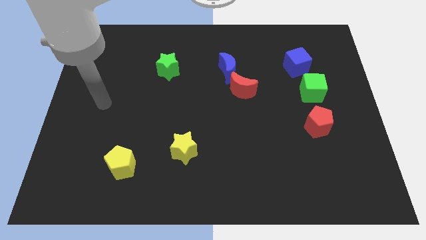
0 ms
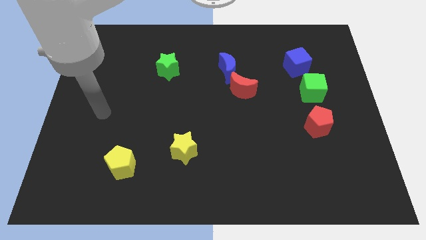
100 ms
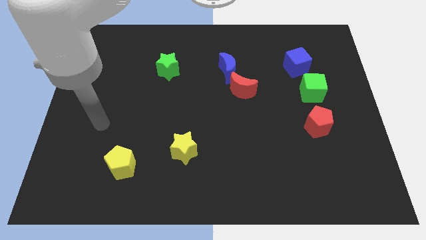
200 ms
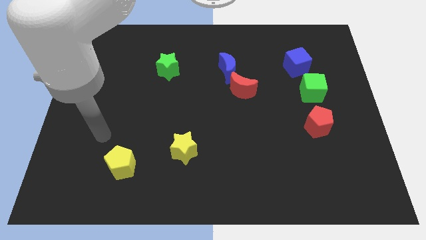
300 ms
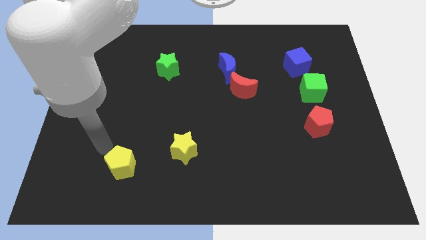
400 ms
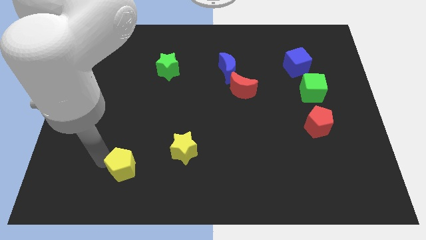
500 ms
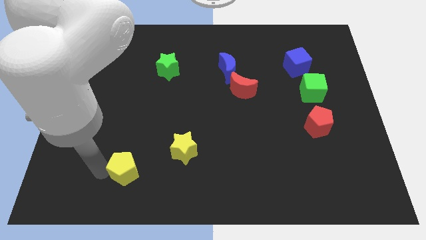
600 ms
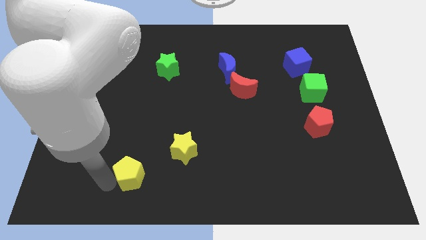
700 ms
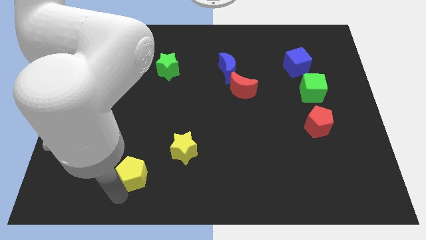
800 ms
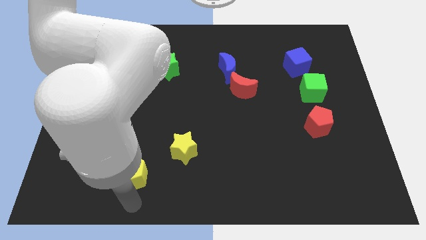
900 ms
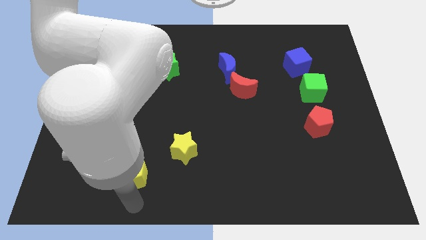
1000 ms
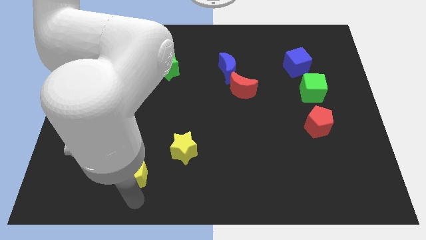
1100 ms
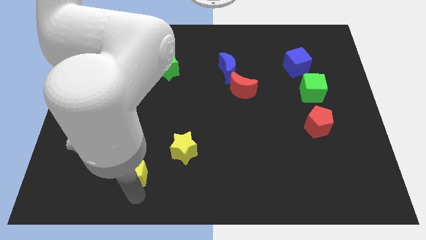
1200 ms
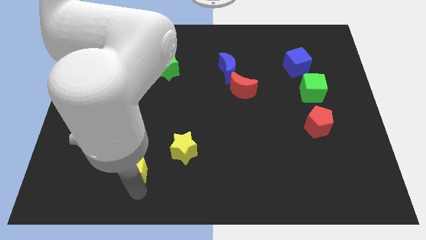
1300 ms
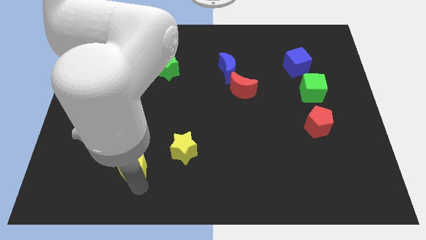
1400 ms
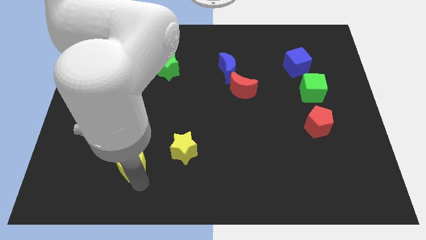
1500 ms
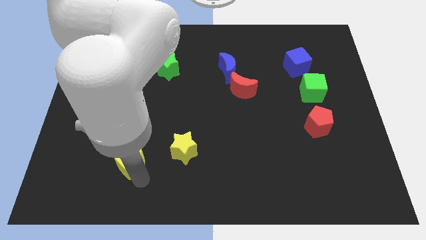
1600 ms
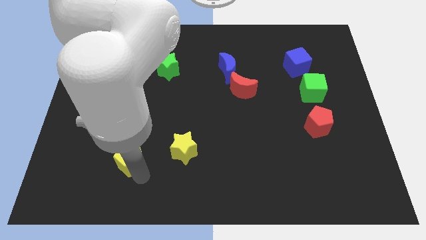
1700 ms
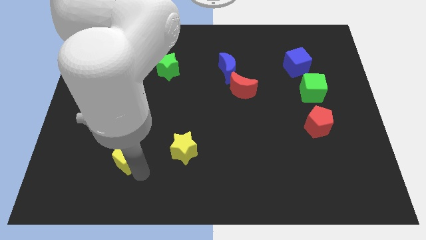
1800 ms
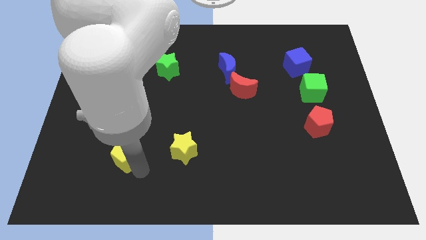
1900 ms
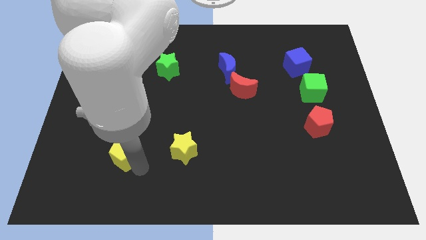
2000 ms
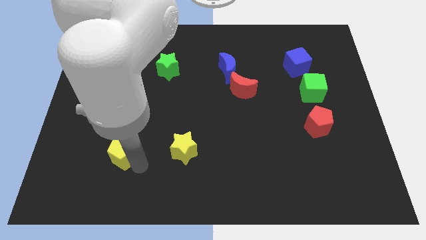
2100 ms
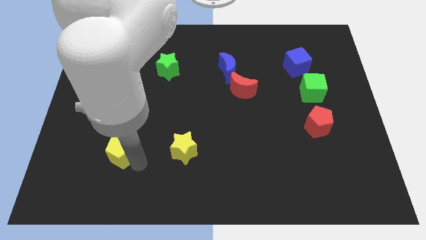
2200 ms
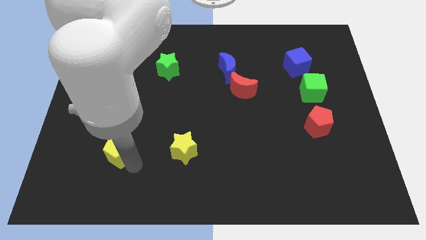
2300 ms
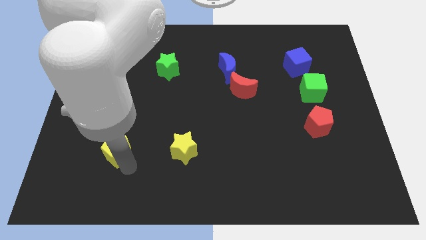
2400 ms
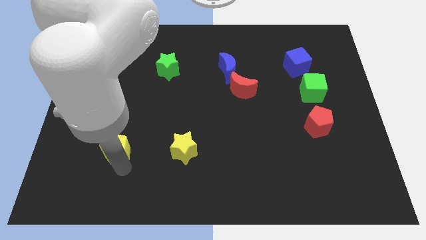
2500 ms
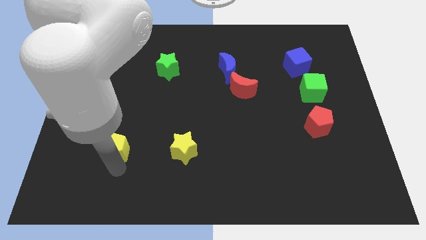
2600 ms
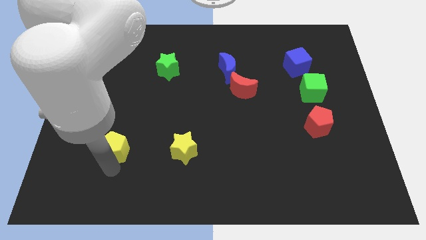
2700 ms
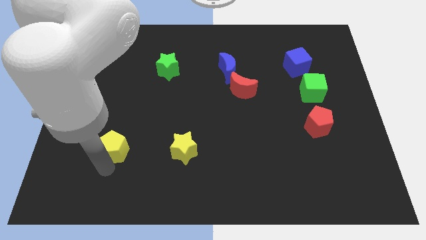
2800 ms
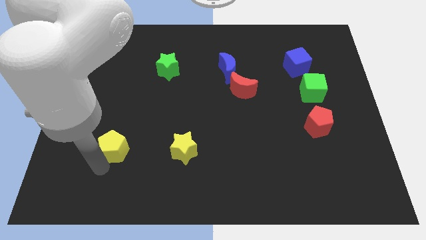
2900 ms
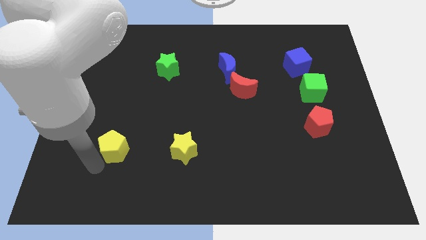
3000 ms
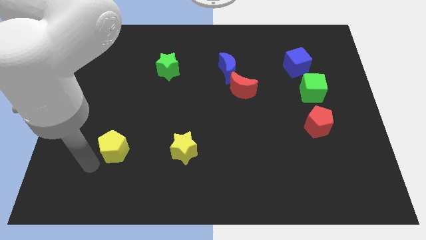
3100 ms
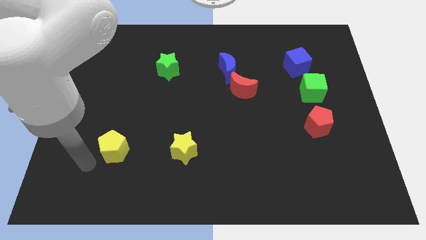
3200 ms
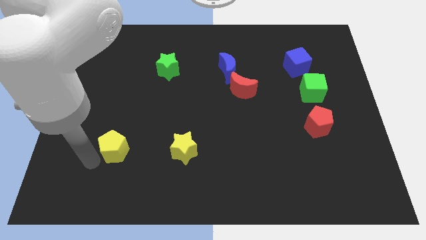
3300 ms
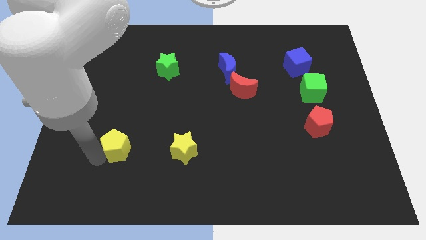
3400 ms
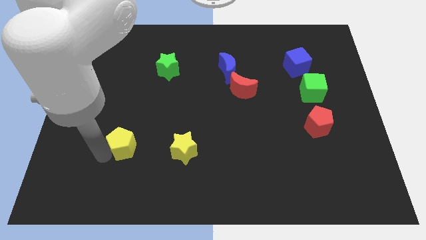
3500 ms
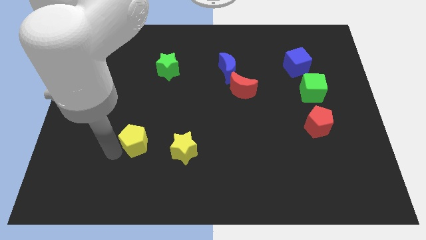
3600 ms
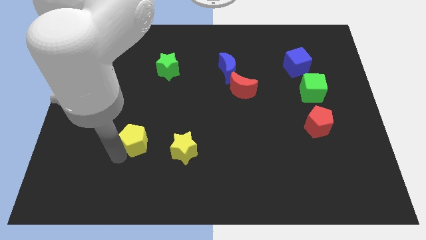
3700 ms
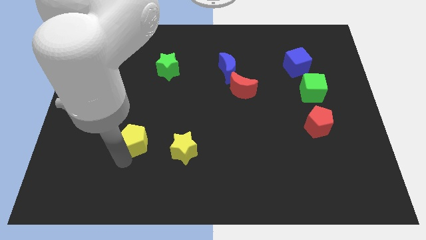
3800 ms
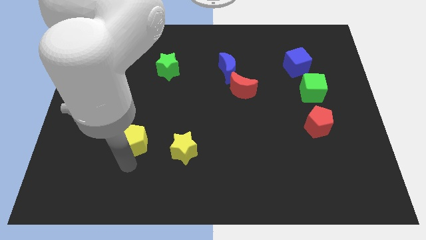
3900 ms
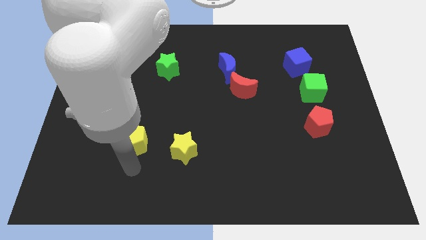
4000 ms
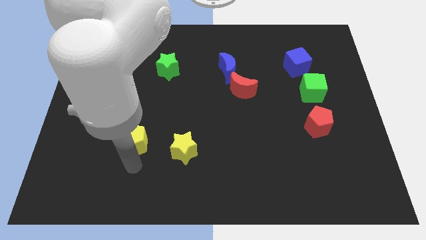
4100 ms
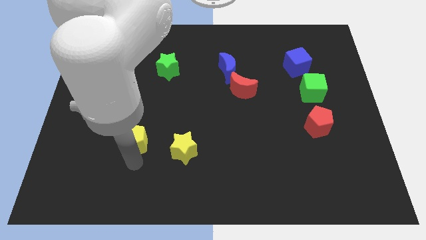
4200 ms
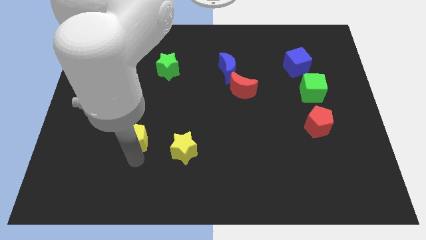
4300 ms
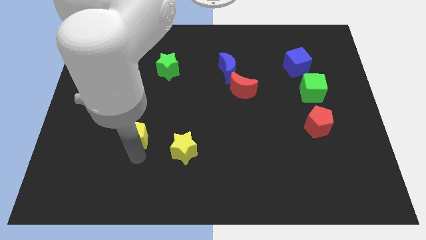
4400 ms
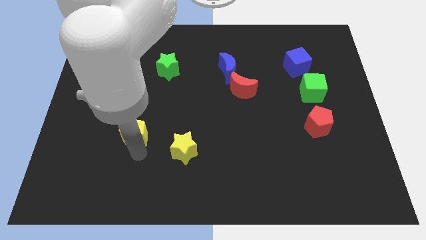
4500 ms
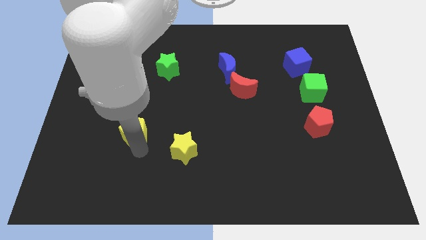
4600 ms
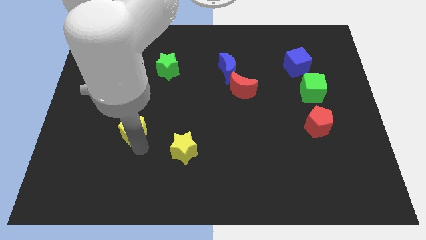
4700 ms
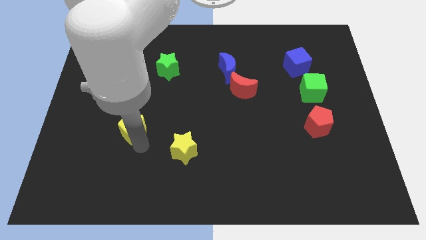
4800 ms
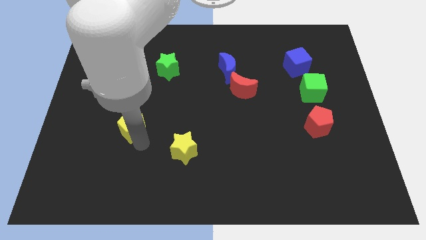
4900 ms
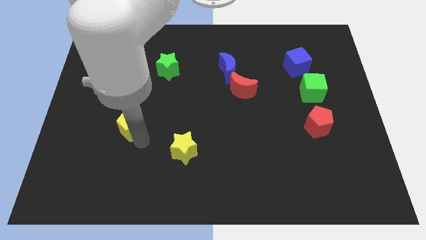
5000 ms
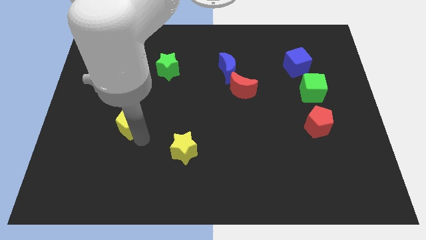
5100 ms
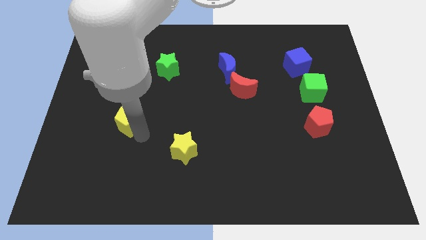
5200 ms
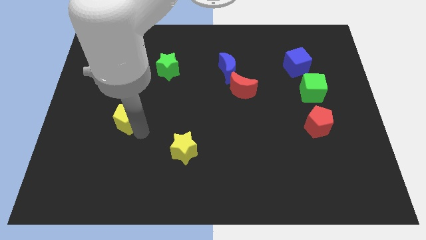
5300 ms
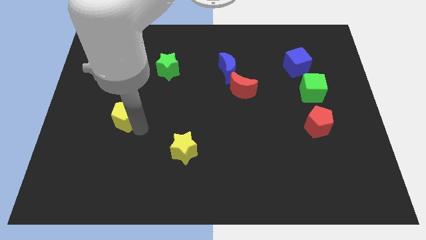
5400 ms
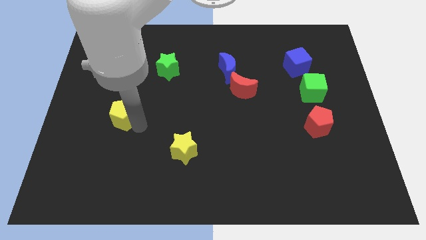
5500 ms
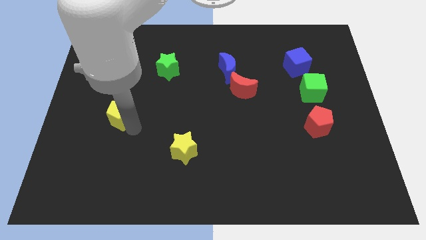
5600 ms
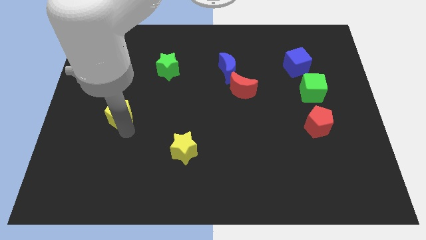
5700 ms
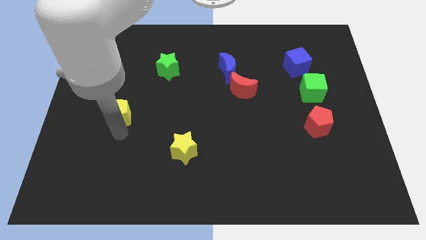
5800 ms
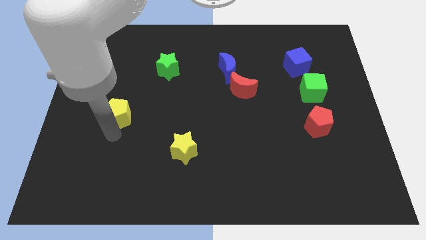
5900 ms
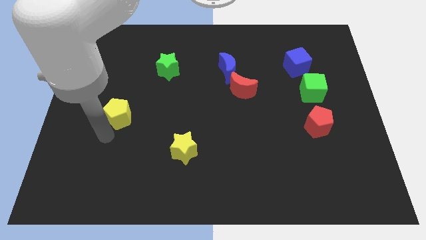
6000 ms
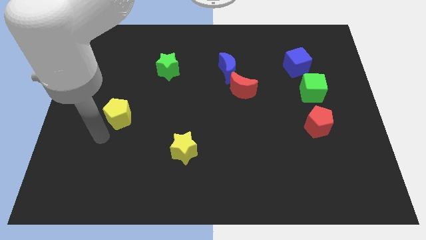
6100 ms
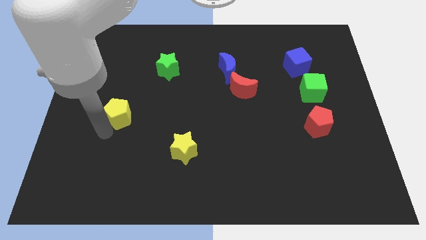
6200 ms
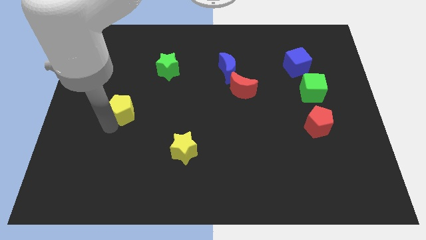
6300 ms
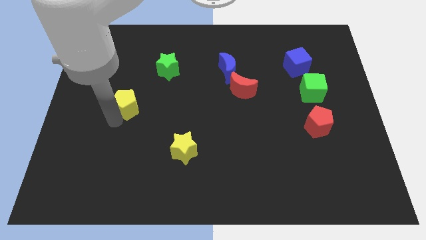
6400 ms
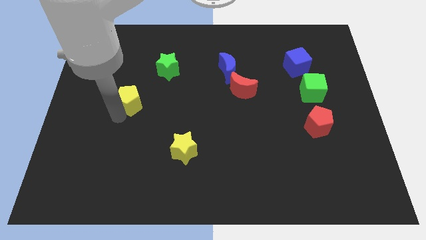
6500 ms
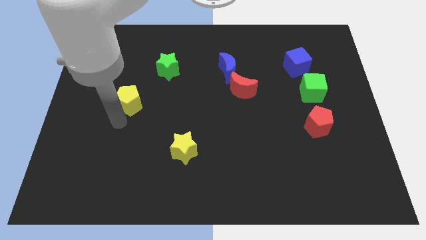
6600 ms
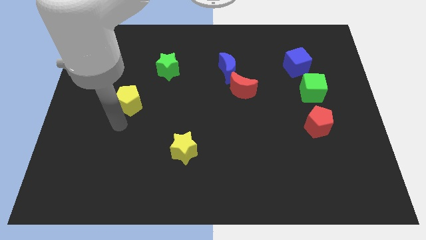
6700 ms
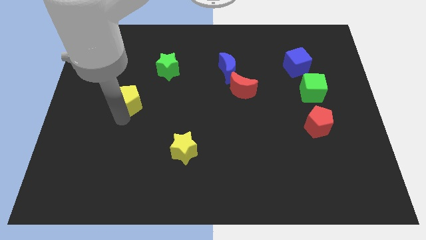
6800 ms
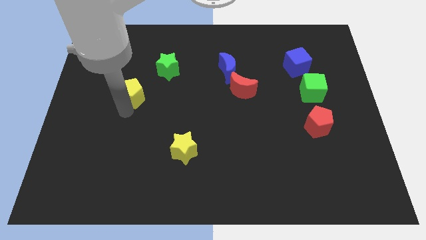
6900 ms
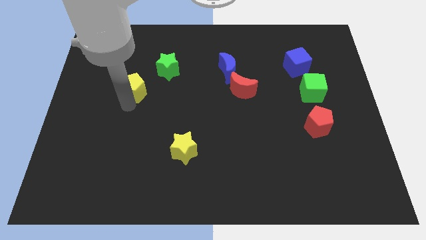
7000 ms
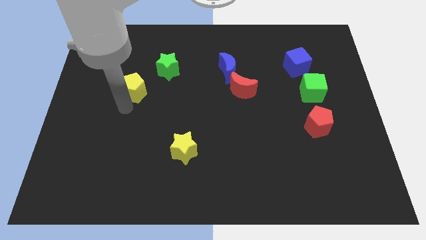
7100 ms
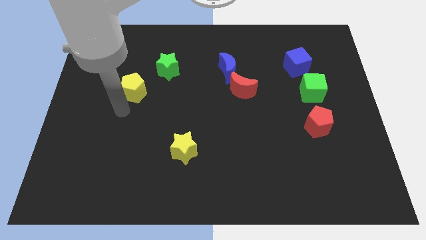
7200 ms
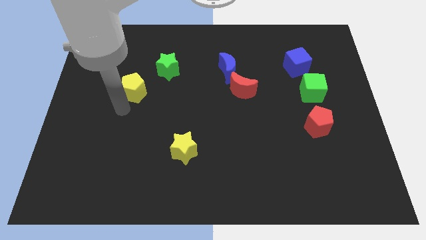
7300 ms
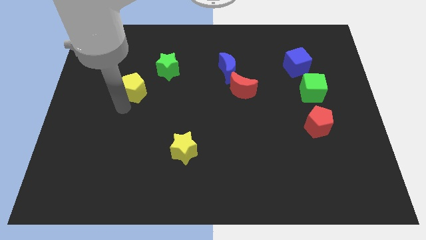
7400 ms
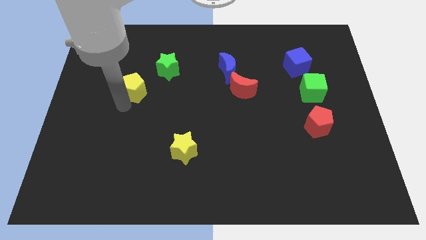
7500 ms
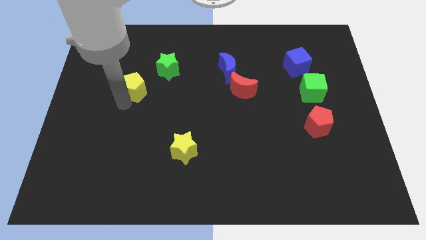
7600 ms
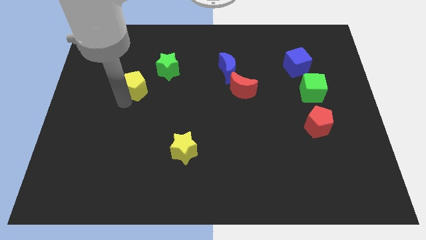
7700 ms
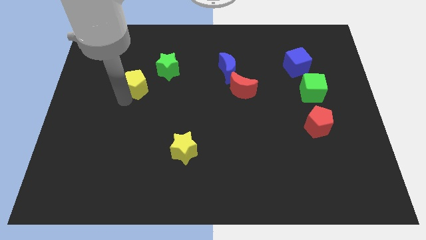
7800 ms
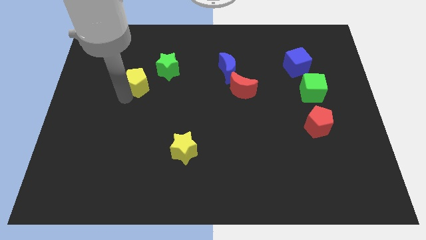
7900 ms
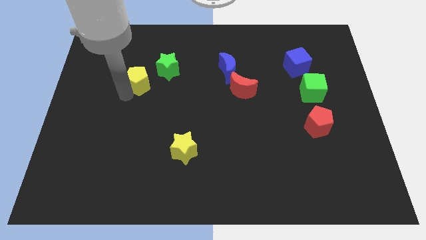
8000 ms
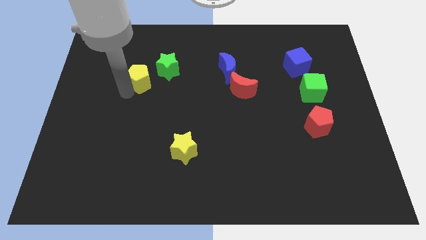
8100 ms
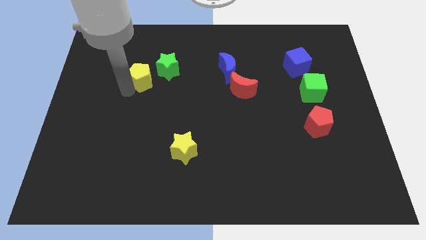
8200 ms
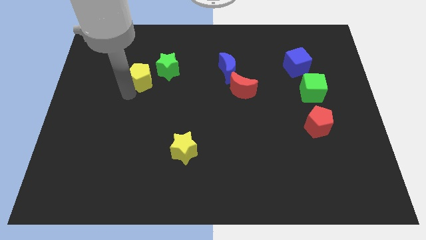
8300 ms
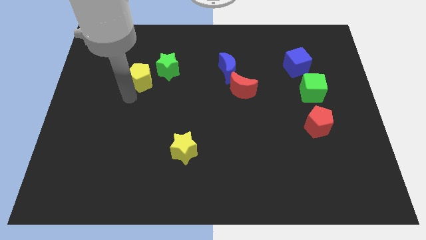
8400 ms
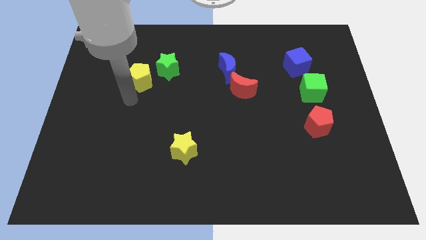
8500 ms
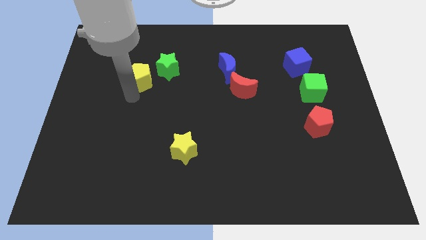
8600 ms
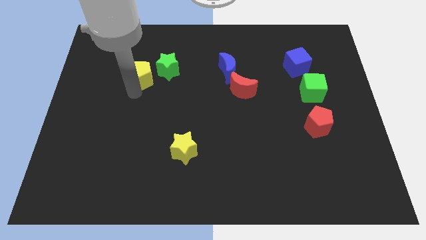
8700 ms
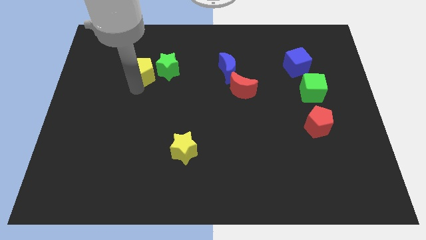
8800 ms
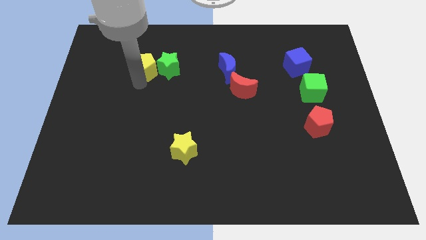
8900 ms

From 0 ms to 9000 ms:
move the yellow pentagon diagonally up and to the left of the green star
